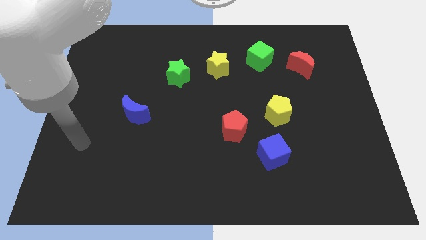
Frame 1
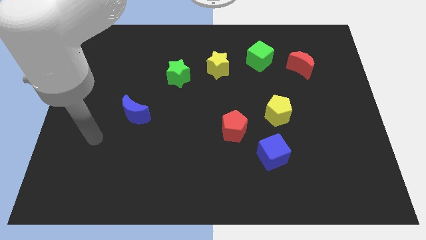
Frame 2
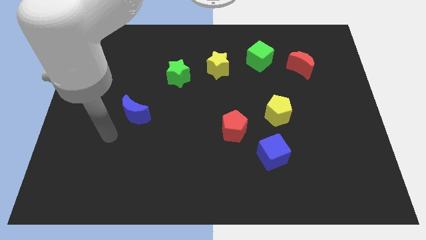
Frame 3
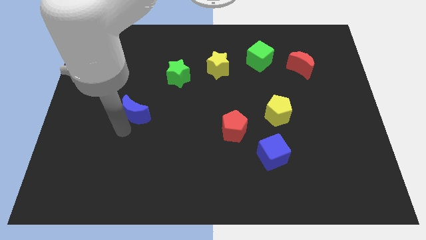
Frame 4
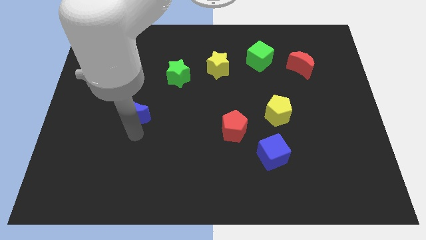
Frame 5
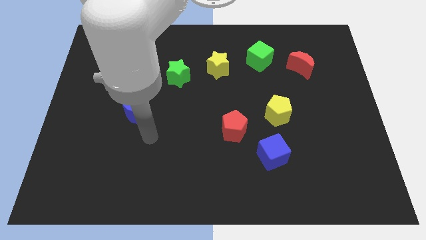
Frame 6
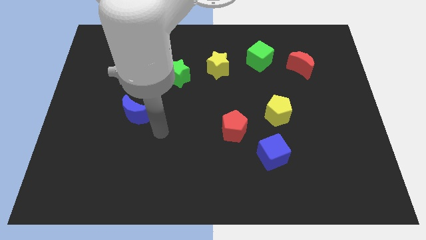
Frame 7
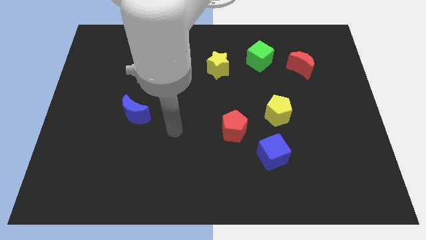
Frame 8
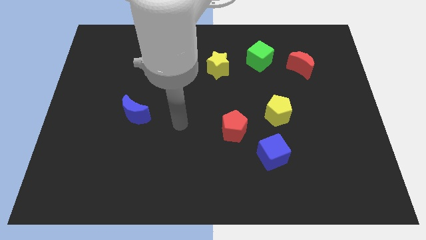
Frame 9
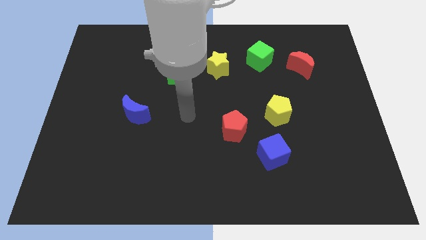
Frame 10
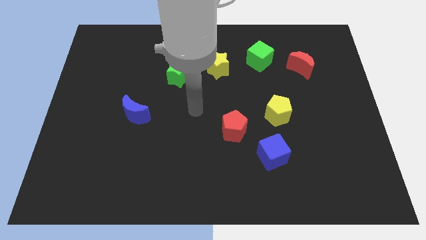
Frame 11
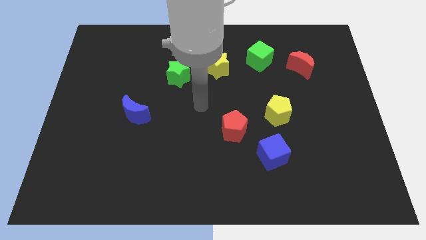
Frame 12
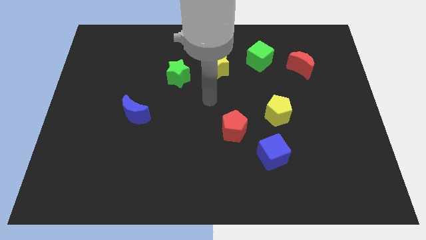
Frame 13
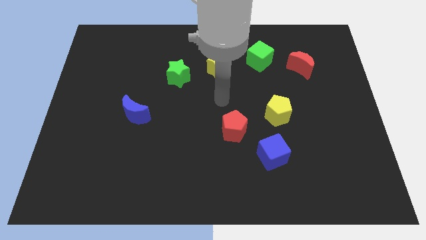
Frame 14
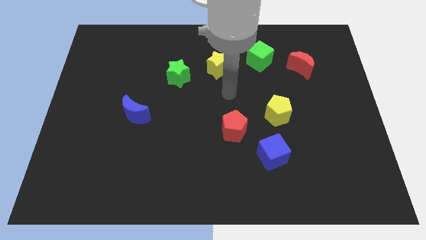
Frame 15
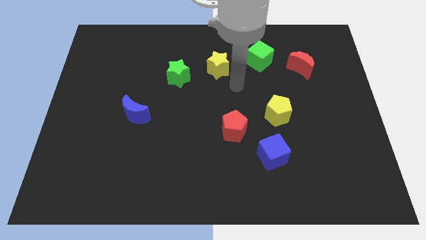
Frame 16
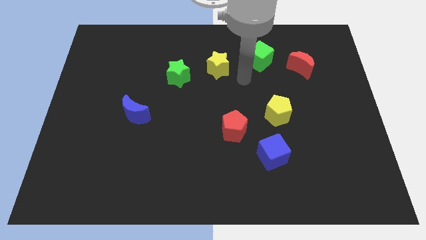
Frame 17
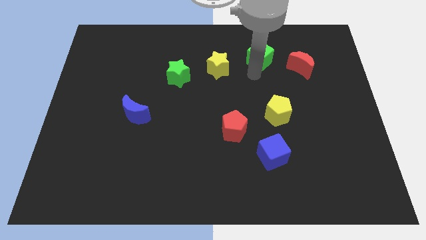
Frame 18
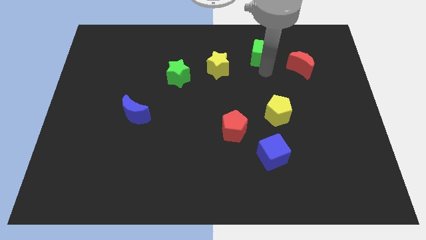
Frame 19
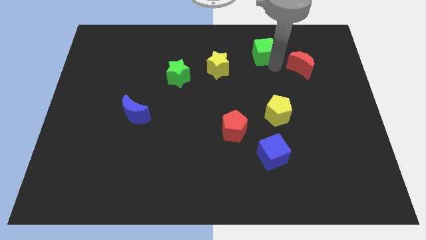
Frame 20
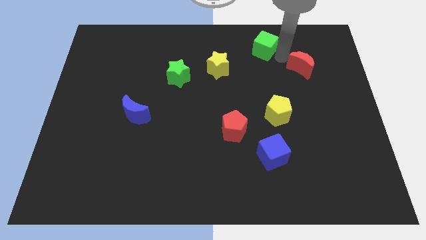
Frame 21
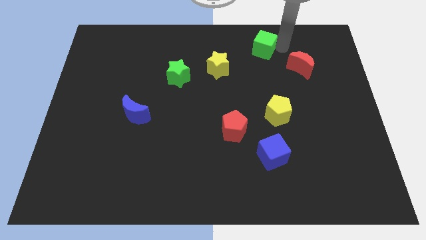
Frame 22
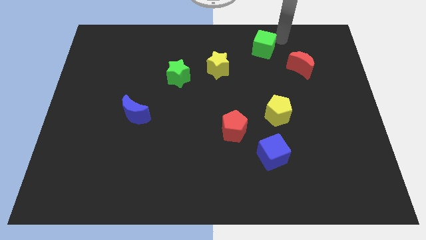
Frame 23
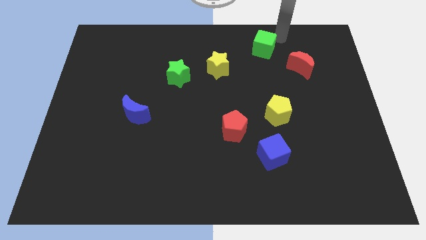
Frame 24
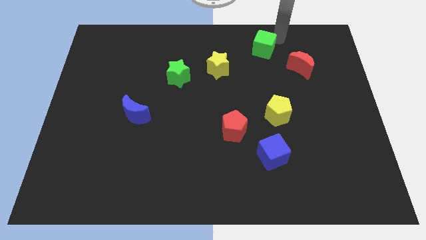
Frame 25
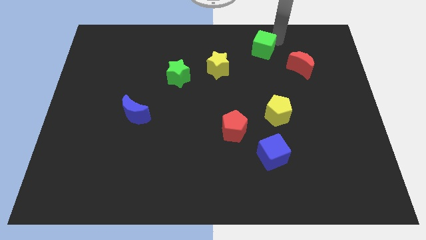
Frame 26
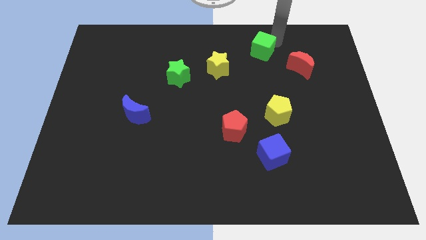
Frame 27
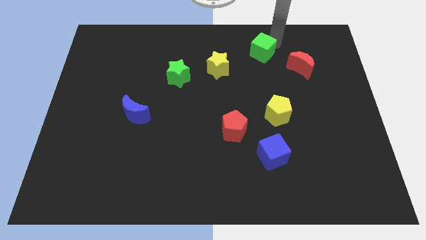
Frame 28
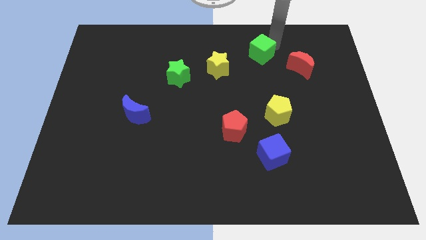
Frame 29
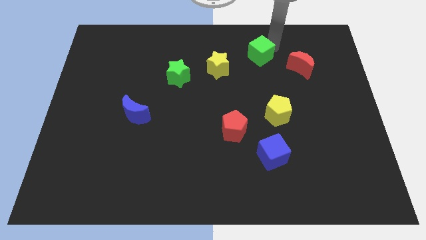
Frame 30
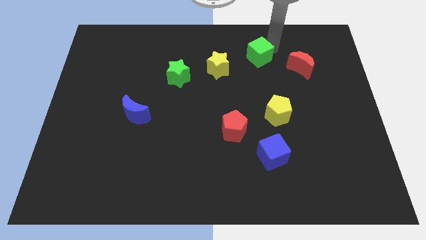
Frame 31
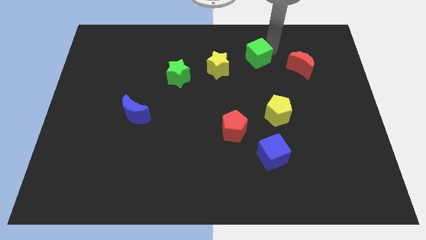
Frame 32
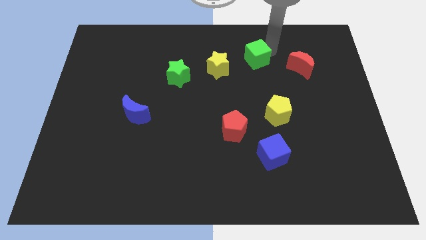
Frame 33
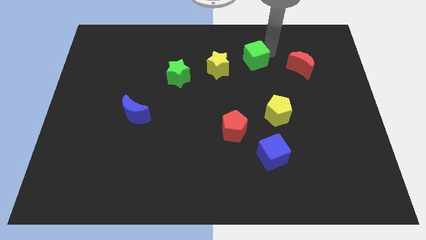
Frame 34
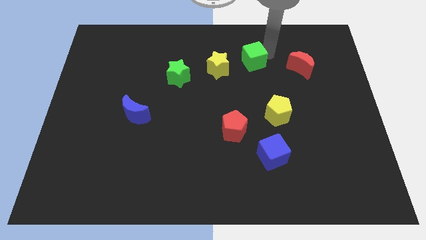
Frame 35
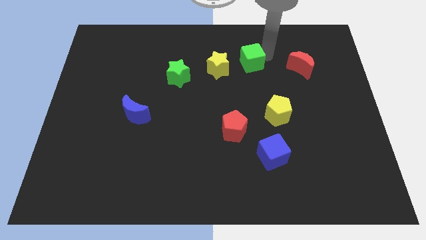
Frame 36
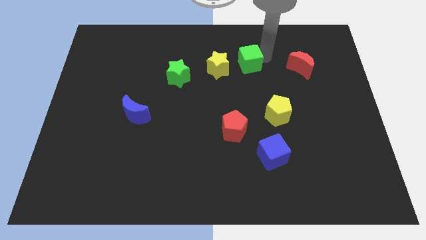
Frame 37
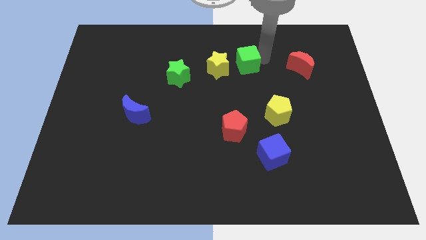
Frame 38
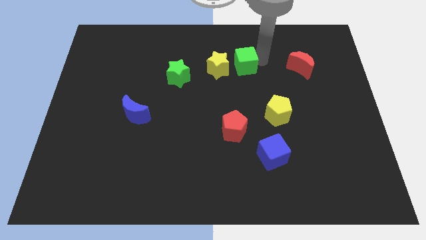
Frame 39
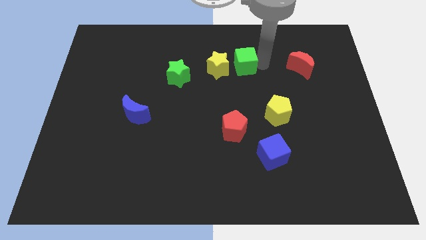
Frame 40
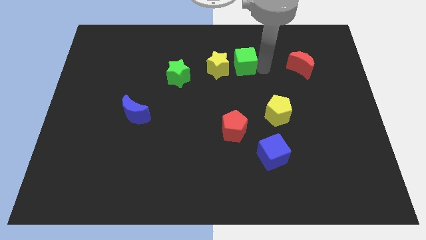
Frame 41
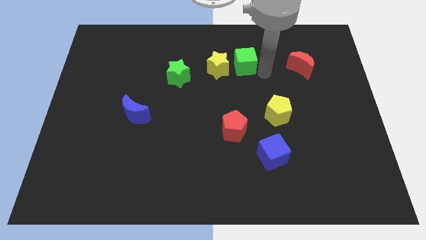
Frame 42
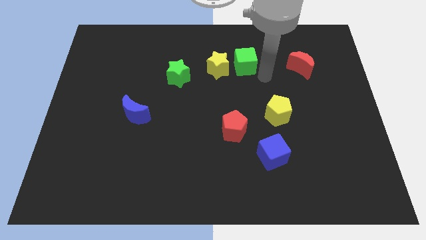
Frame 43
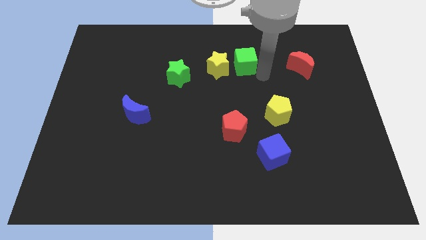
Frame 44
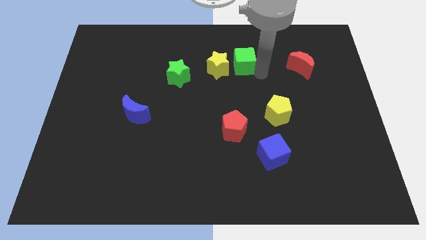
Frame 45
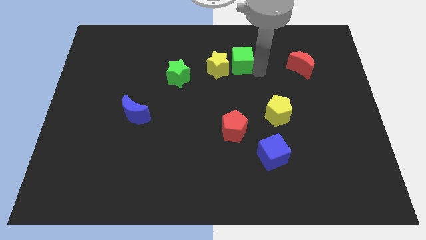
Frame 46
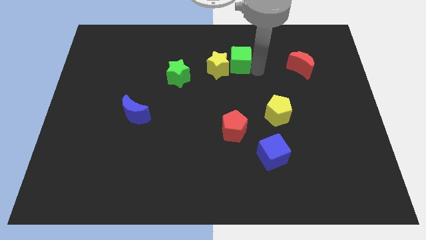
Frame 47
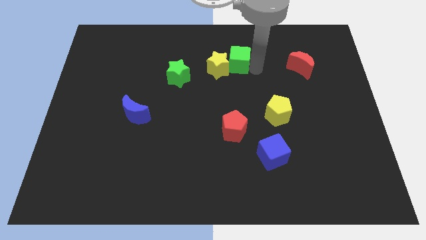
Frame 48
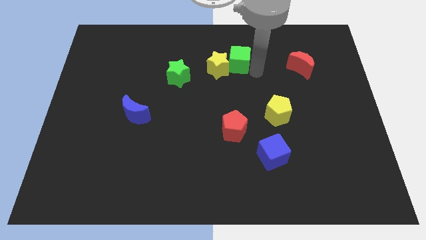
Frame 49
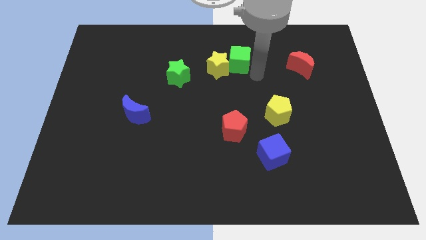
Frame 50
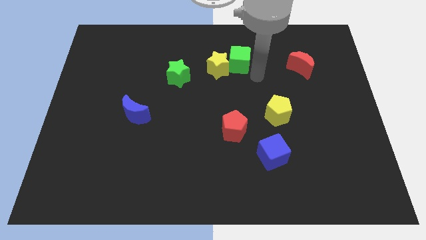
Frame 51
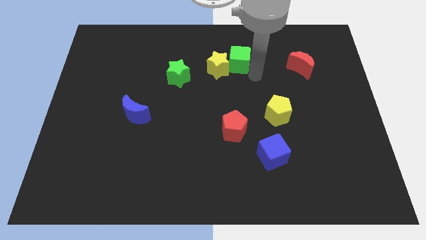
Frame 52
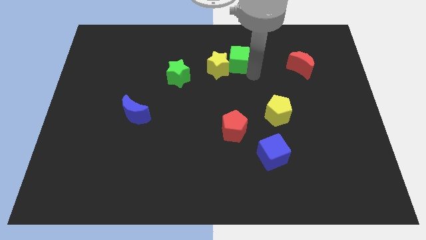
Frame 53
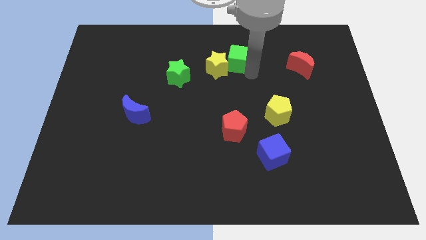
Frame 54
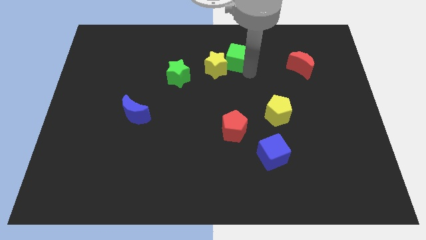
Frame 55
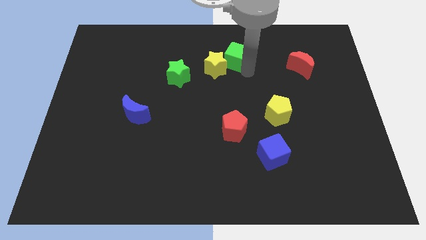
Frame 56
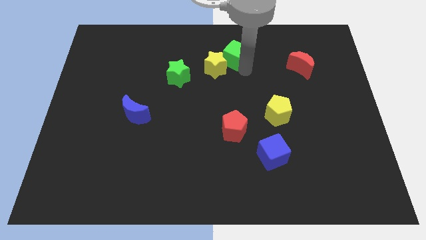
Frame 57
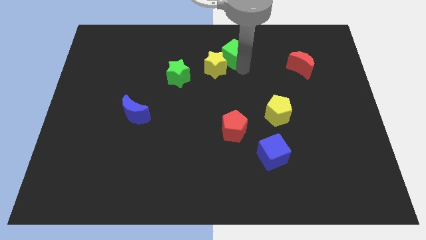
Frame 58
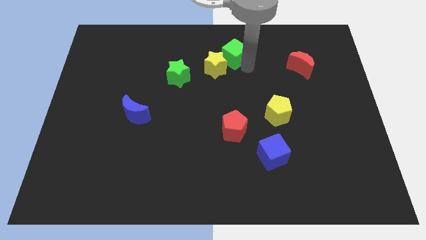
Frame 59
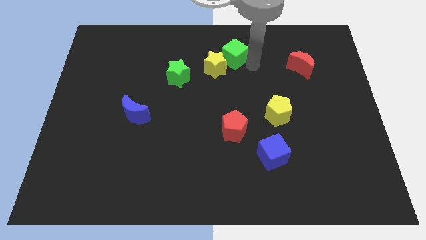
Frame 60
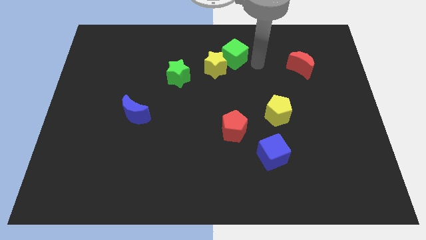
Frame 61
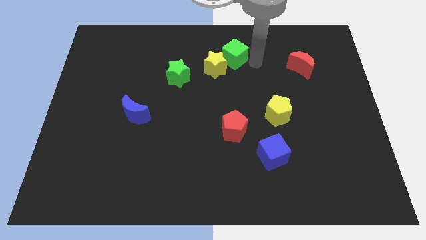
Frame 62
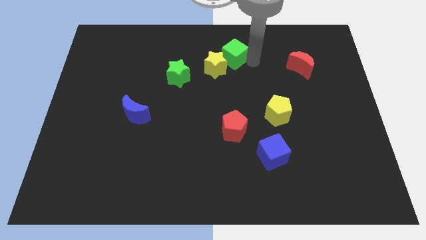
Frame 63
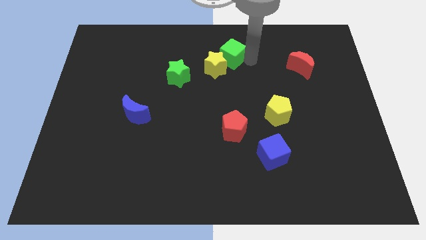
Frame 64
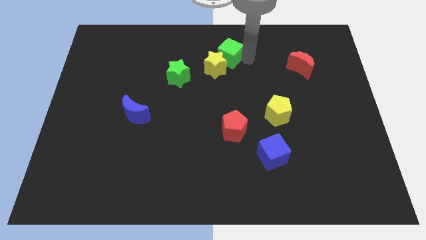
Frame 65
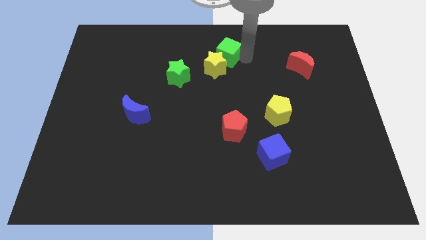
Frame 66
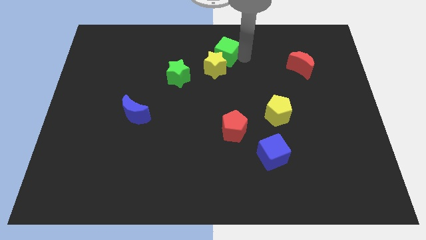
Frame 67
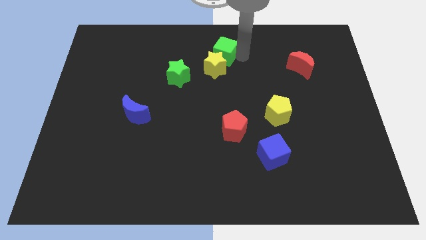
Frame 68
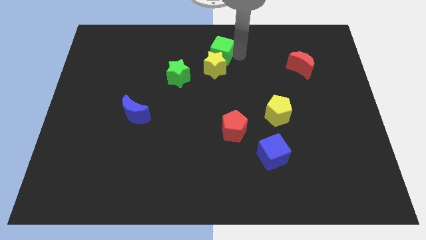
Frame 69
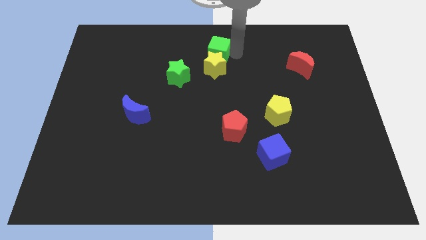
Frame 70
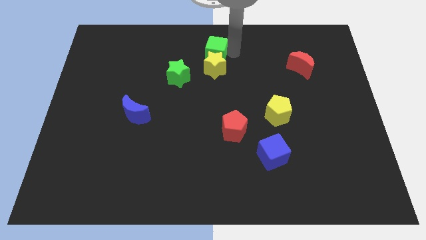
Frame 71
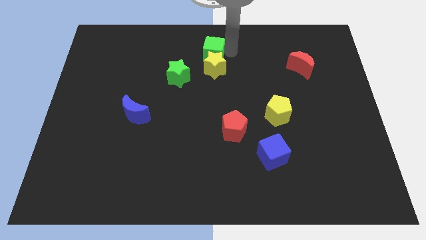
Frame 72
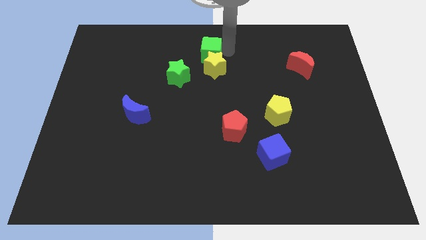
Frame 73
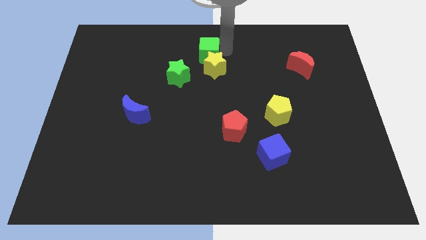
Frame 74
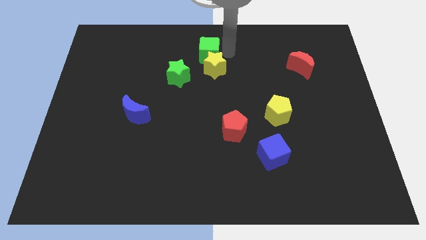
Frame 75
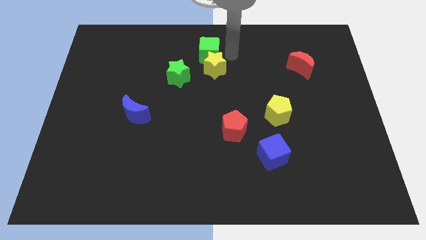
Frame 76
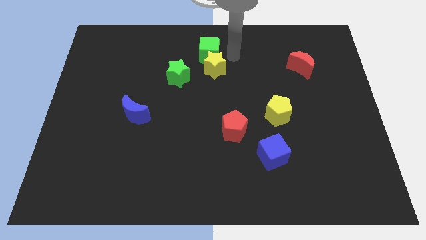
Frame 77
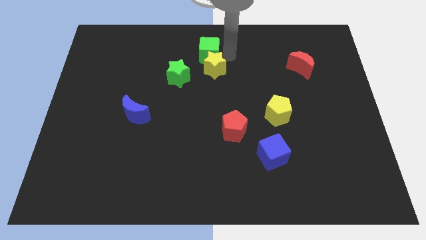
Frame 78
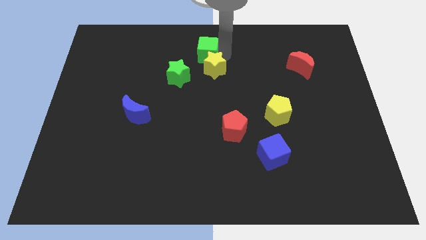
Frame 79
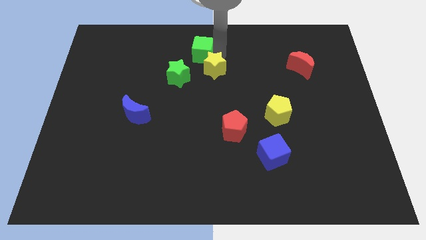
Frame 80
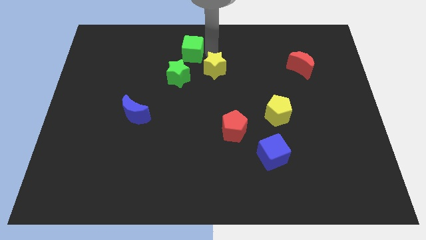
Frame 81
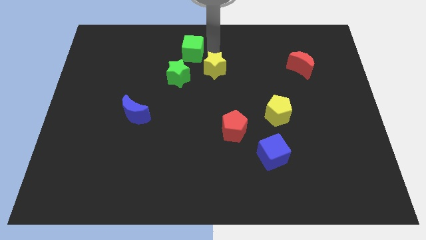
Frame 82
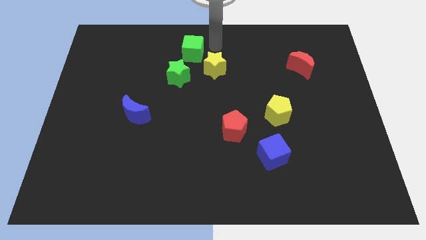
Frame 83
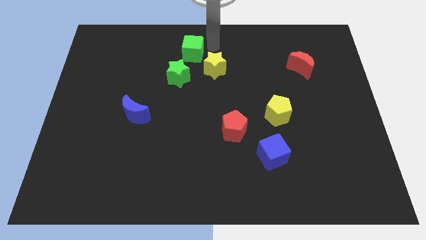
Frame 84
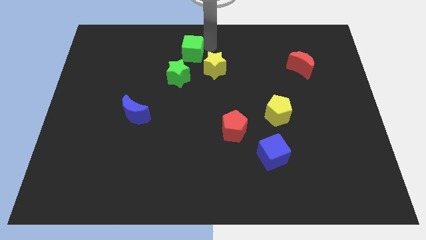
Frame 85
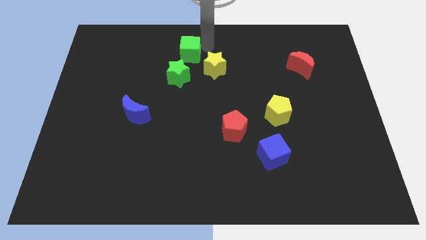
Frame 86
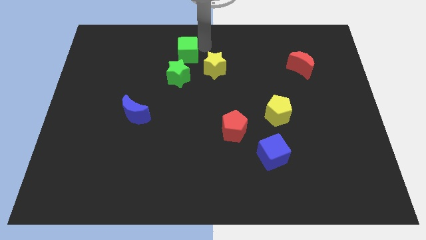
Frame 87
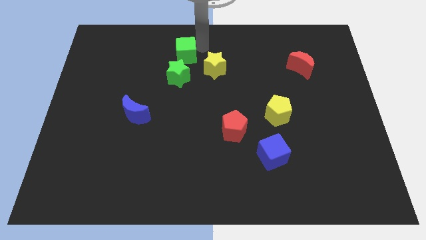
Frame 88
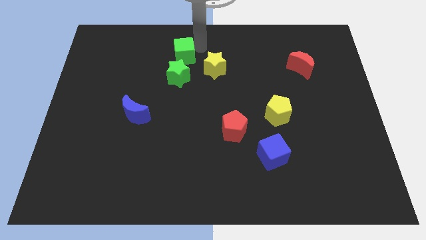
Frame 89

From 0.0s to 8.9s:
slide the green cube left
